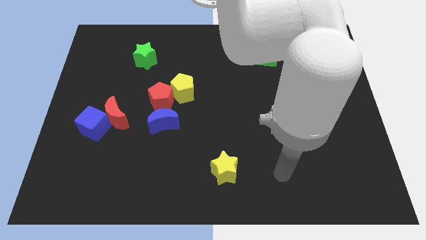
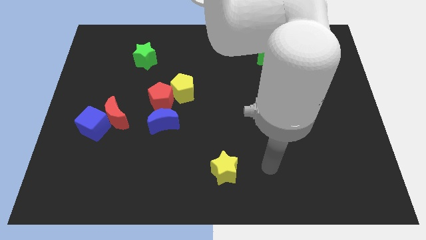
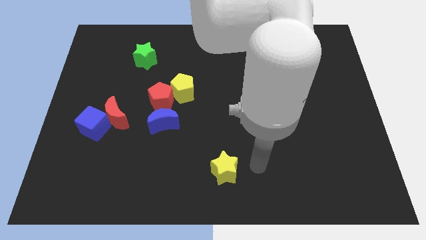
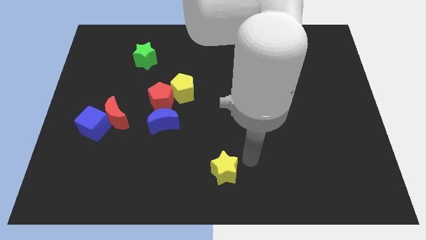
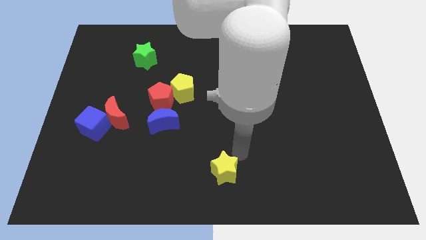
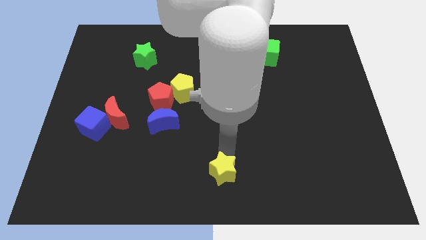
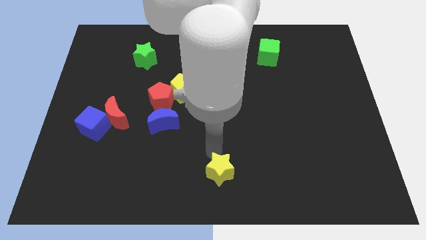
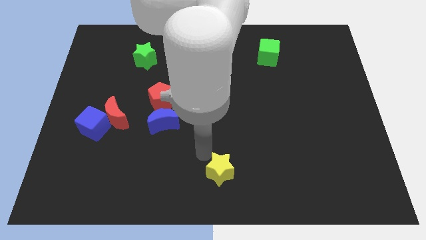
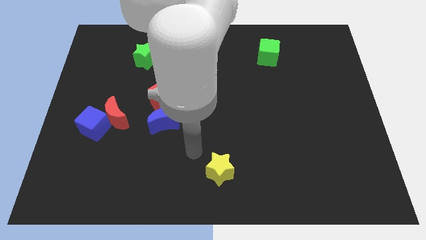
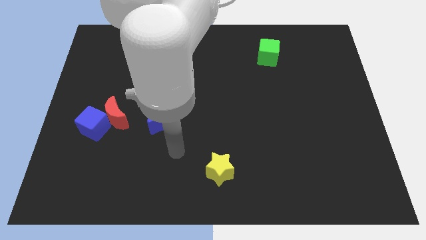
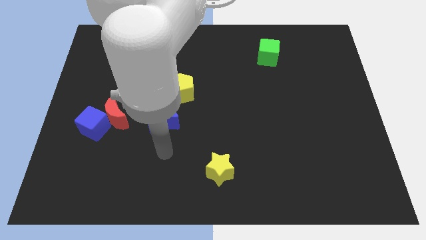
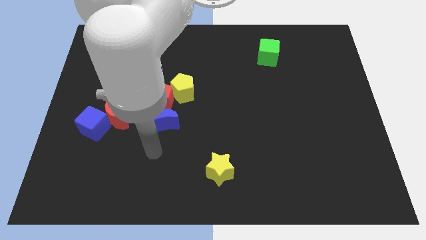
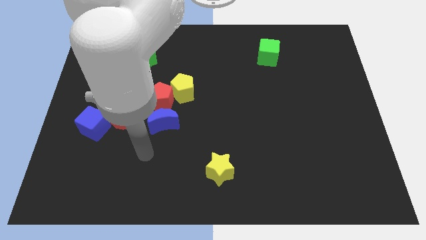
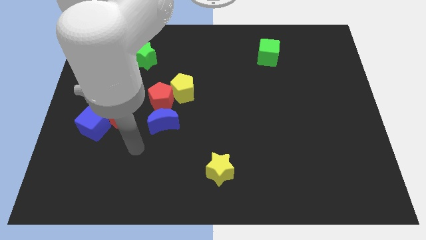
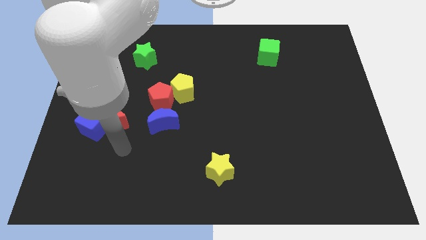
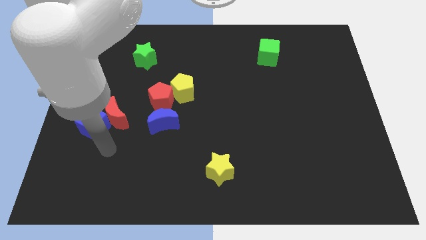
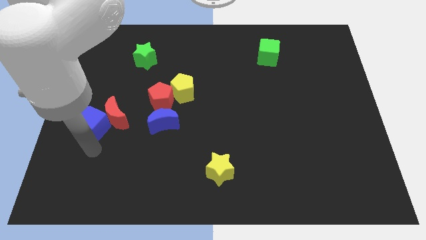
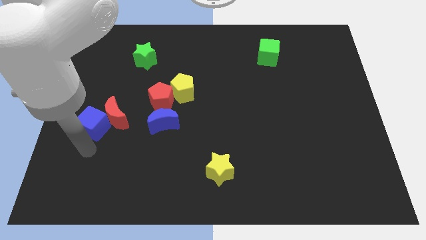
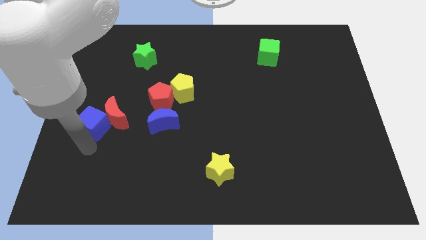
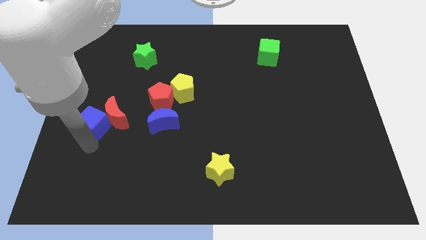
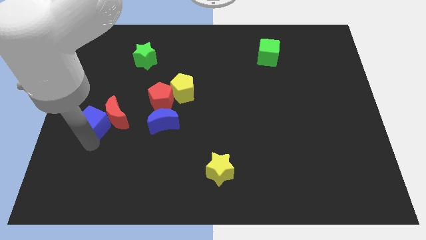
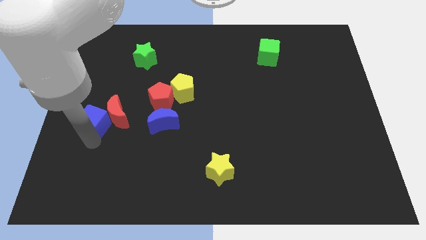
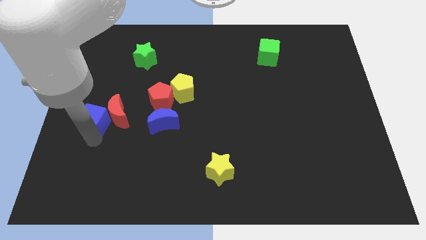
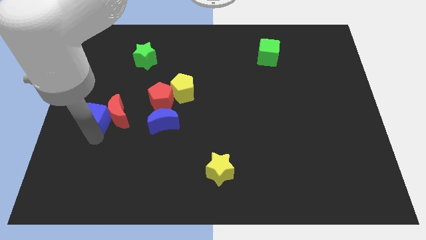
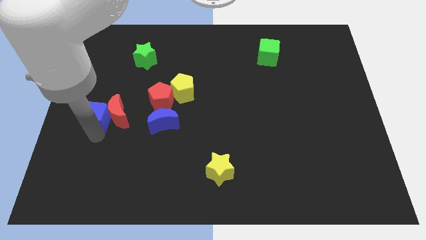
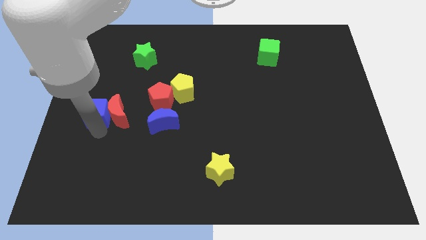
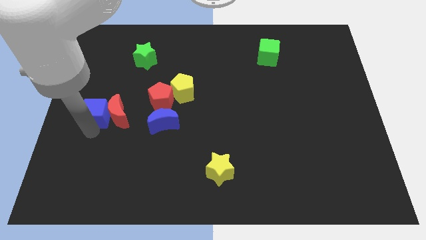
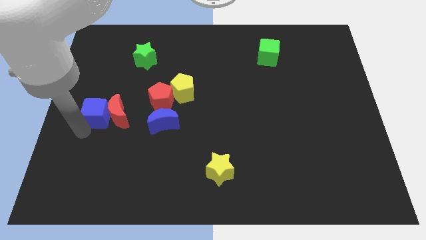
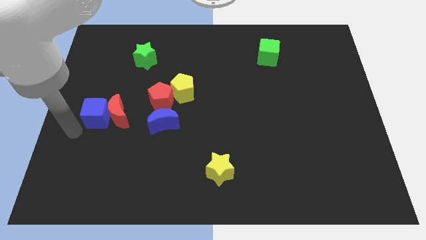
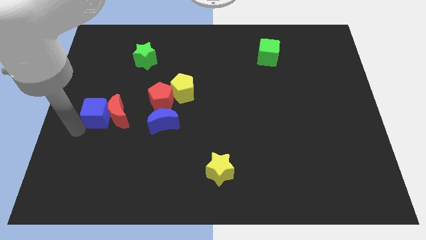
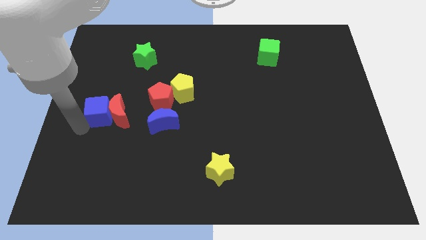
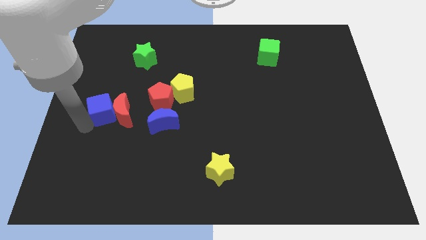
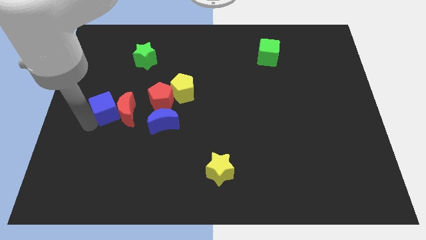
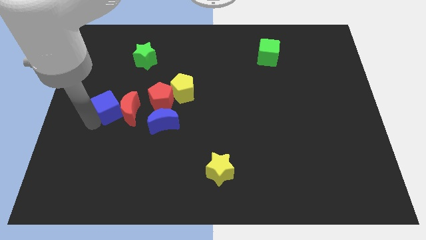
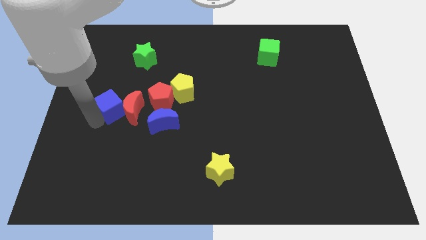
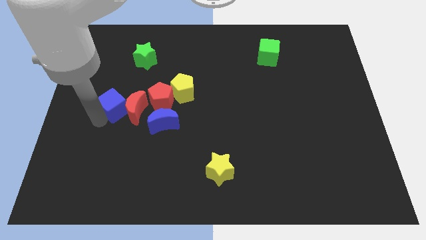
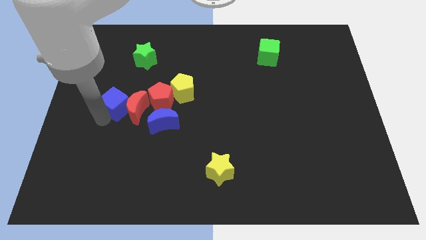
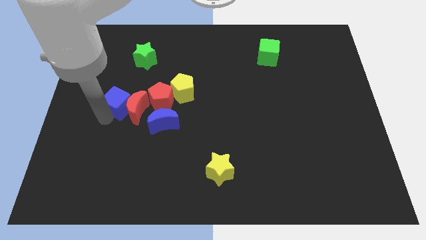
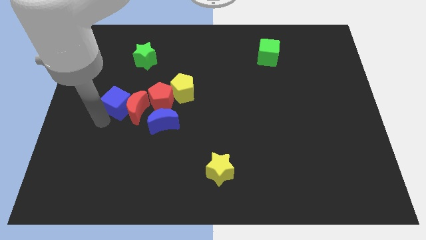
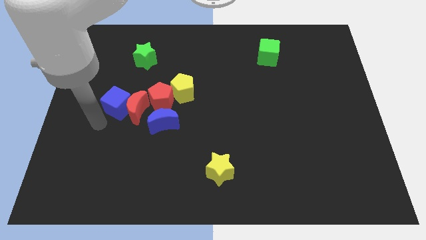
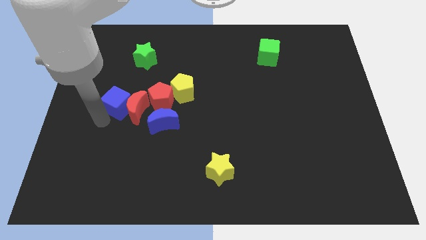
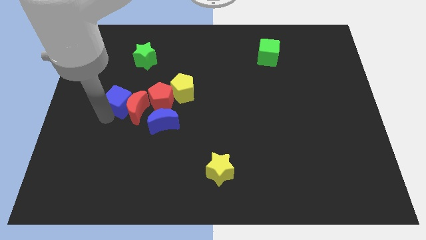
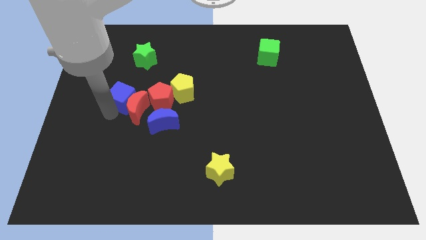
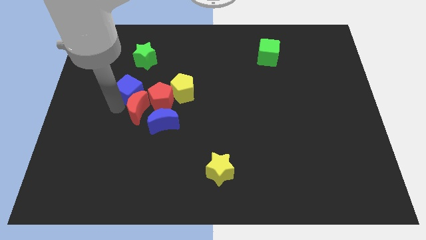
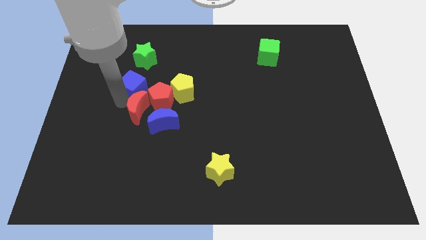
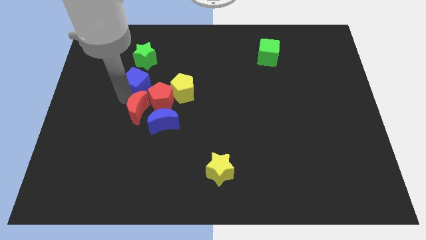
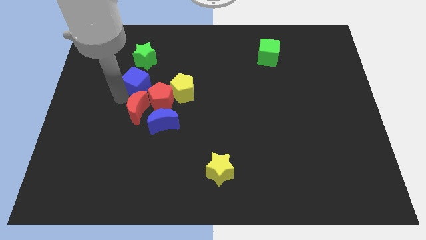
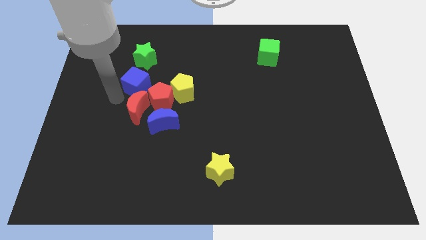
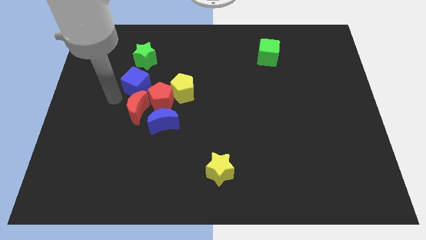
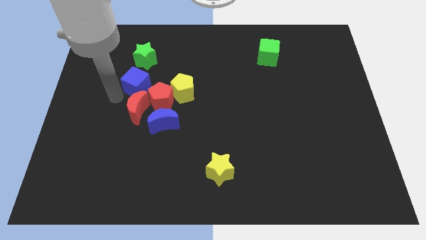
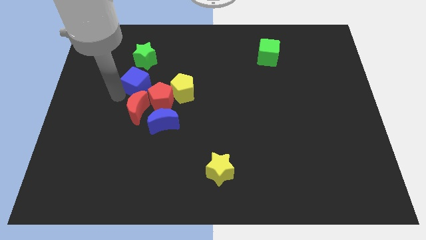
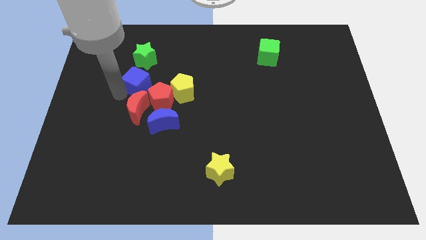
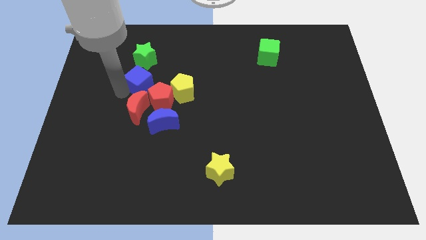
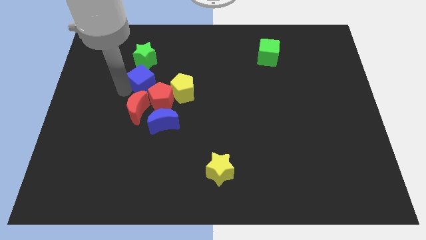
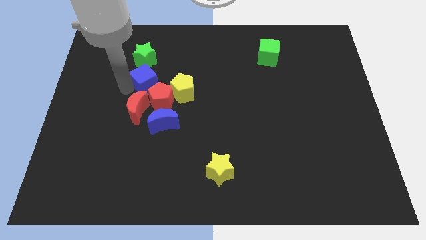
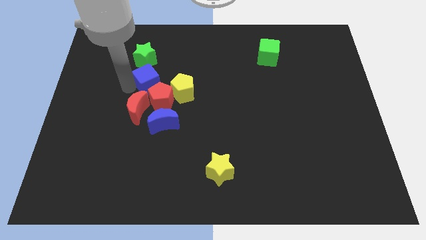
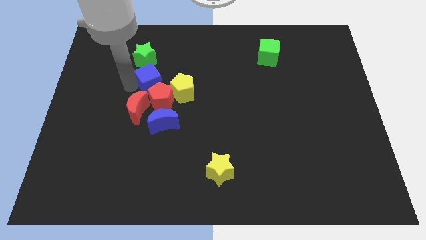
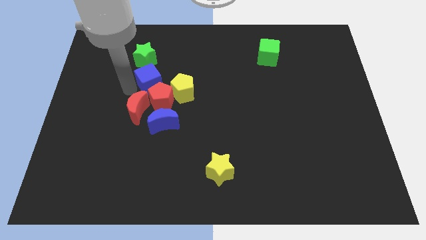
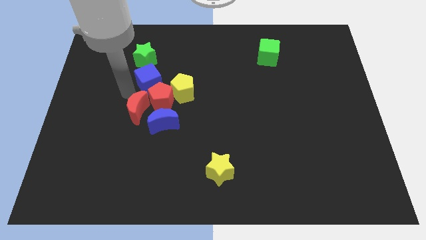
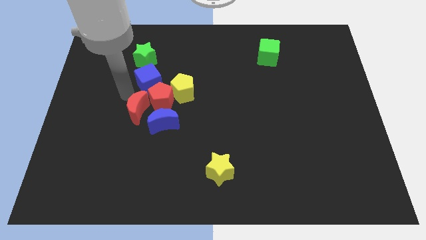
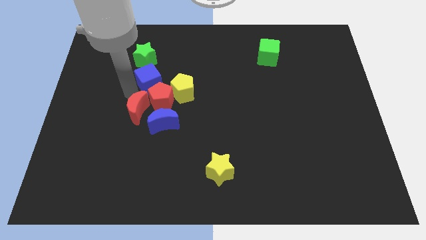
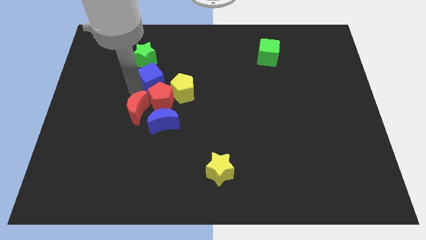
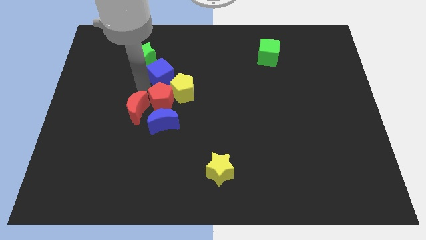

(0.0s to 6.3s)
move the blue cube upwards and then to the right

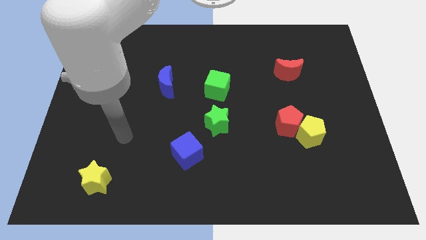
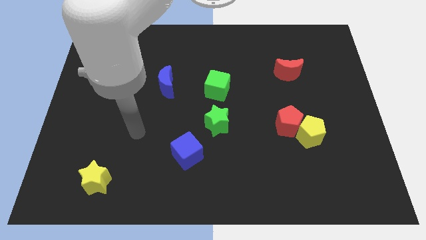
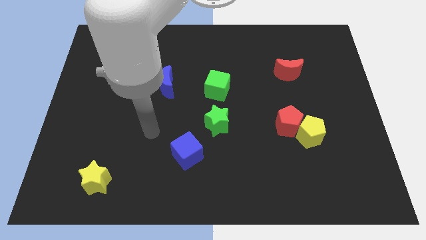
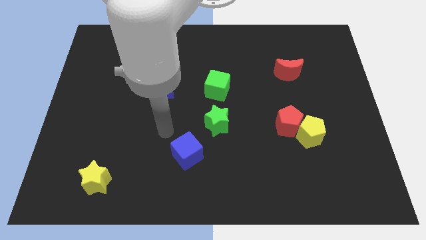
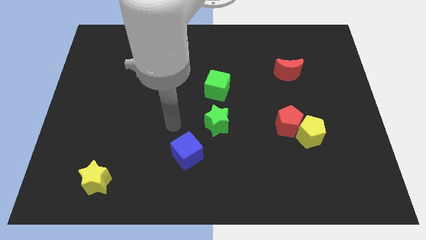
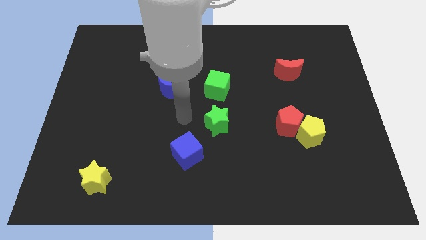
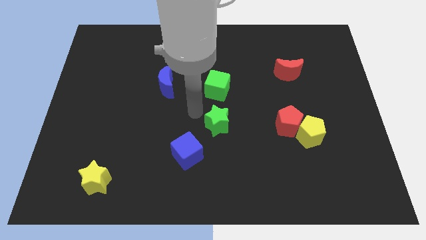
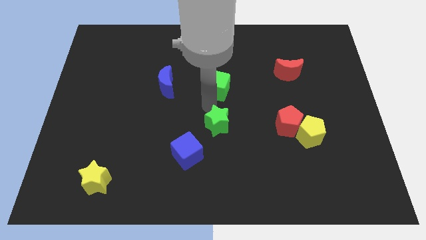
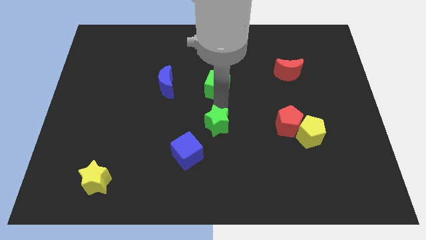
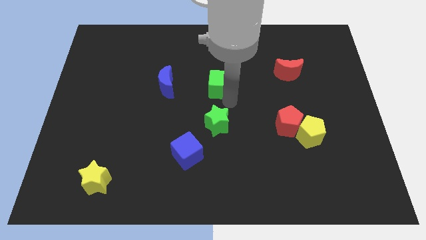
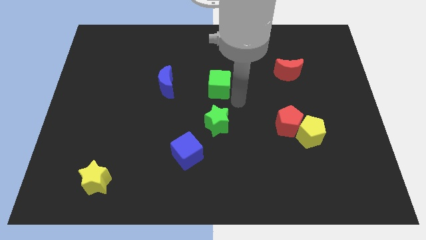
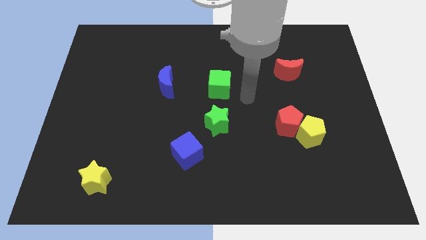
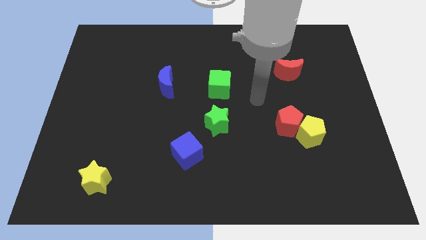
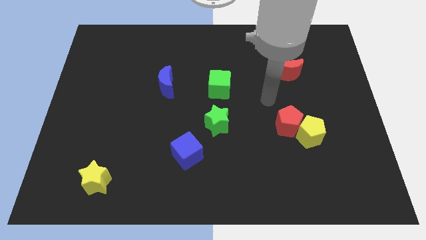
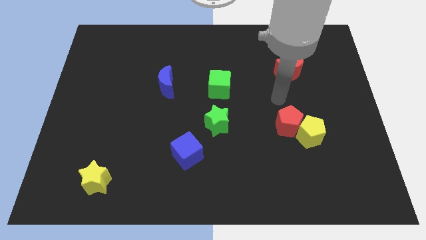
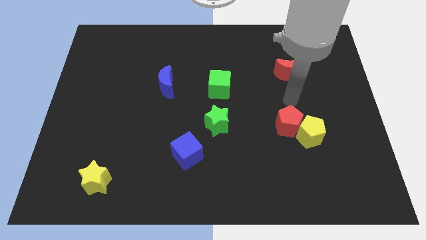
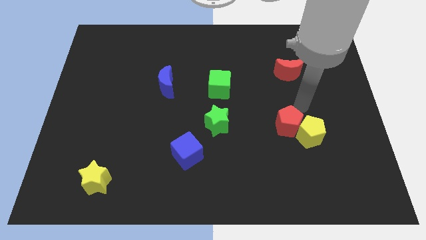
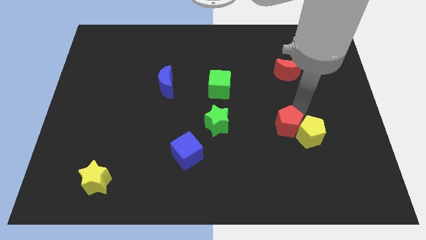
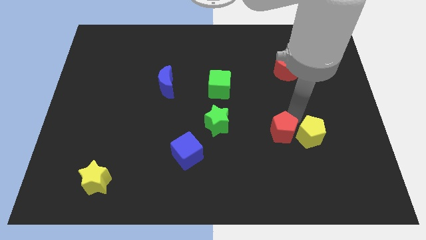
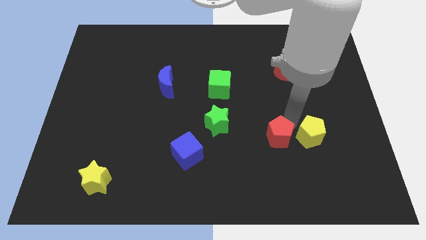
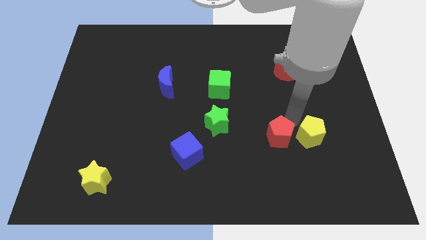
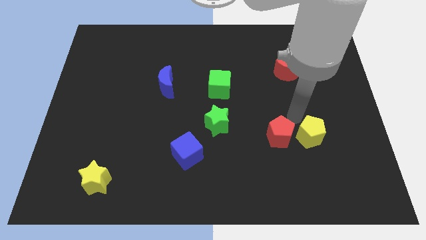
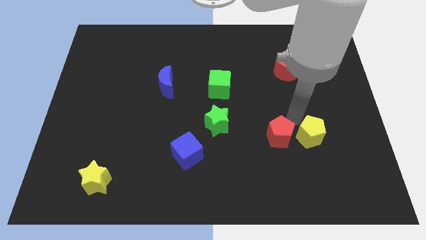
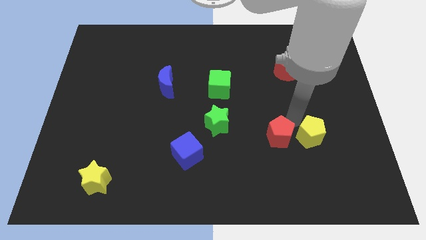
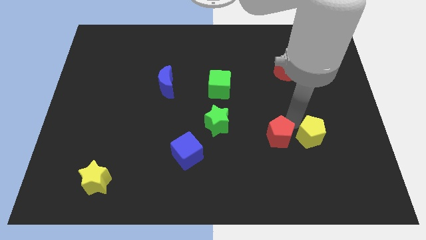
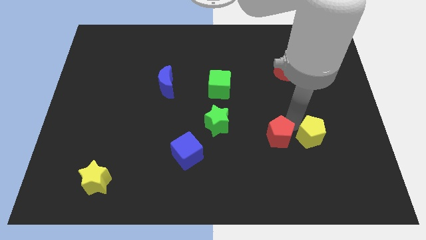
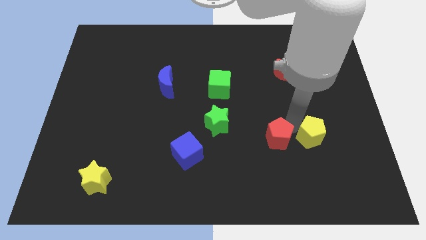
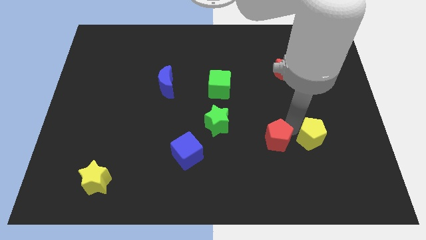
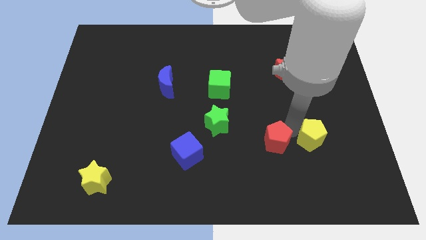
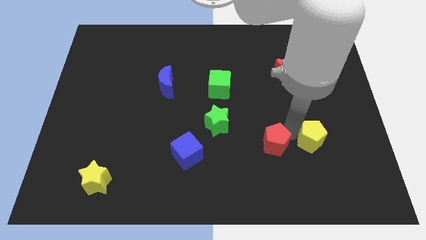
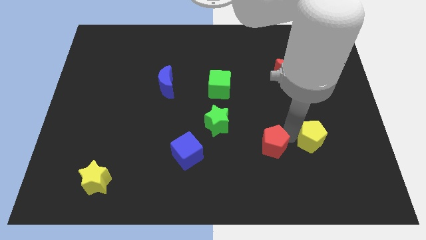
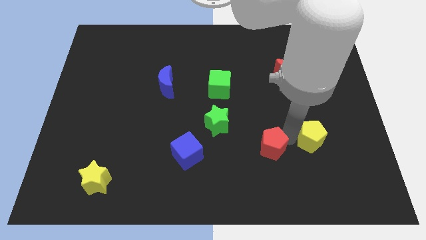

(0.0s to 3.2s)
slide the red pentagon down and then to the left a little
